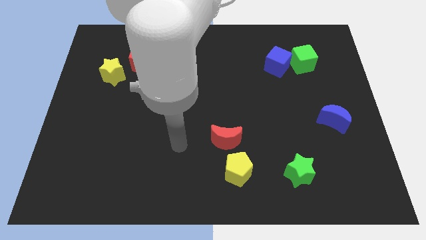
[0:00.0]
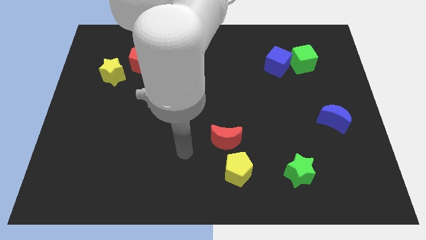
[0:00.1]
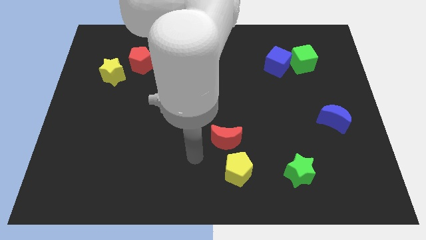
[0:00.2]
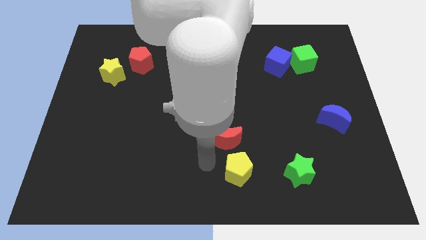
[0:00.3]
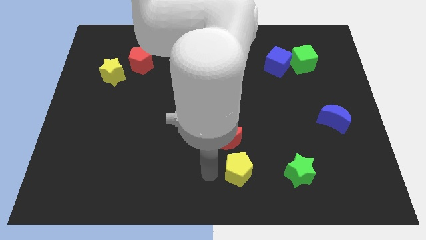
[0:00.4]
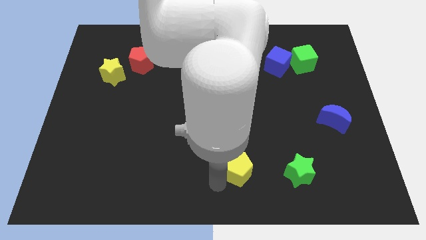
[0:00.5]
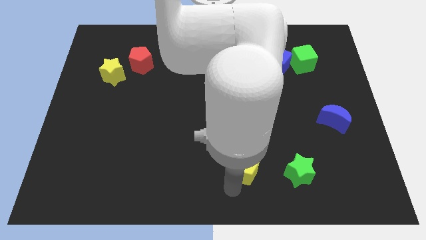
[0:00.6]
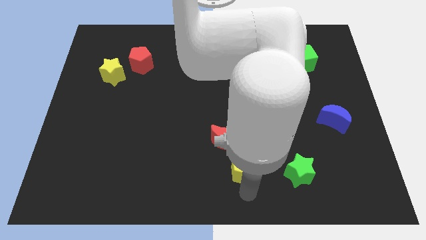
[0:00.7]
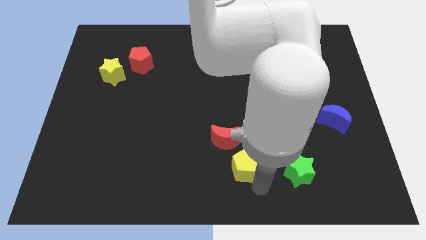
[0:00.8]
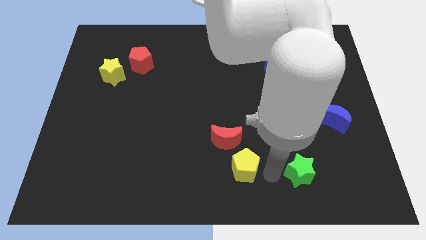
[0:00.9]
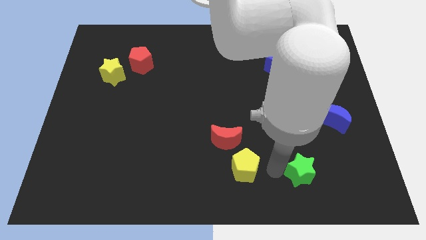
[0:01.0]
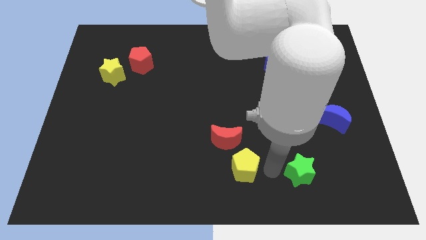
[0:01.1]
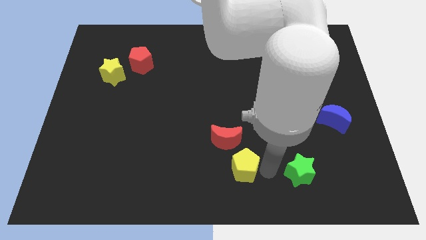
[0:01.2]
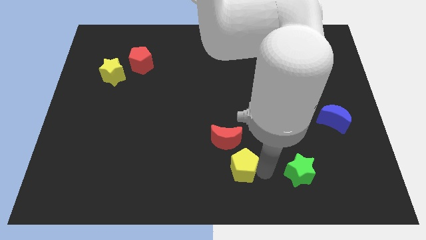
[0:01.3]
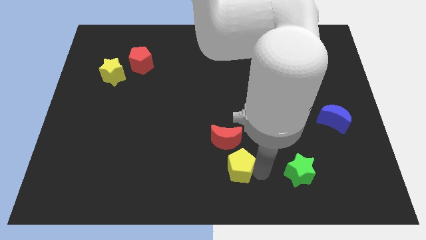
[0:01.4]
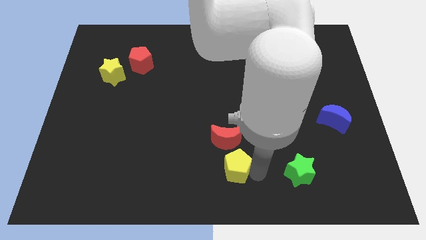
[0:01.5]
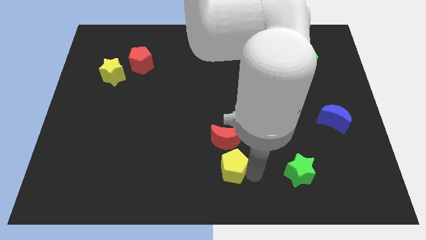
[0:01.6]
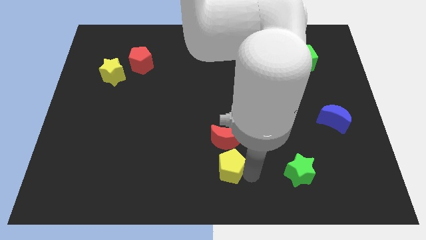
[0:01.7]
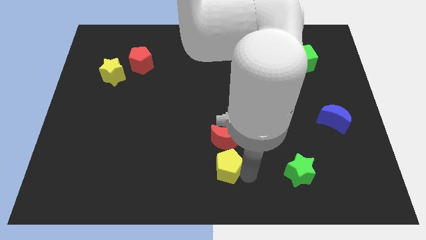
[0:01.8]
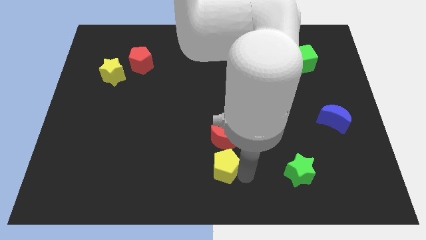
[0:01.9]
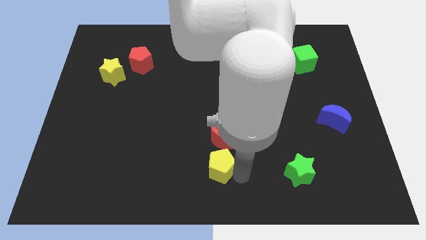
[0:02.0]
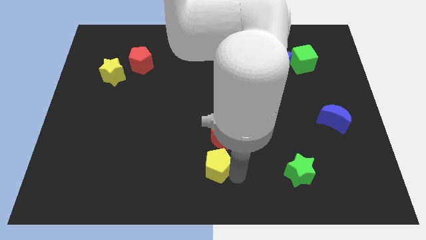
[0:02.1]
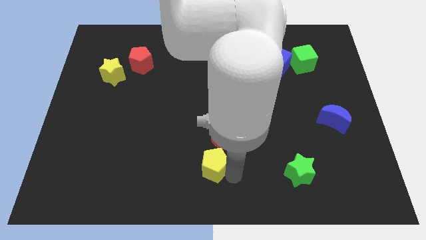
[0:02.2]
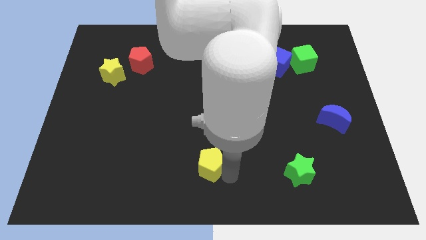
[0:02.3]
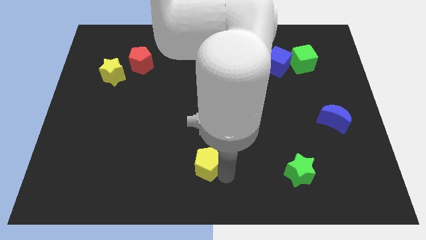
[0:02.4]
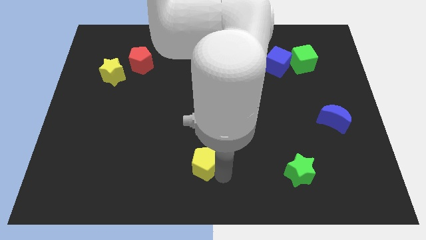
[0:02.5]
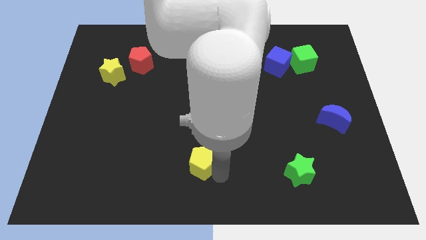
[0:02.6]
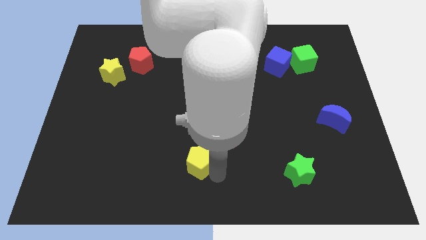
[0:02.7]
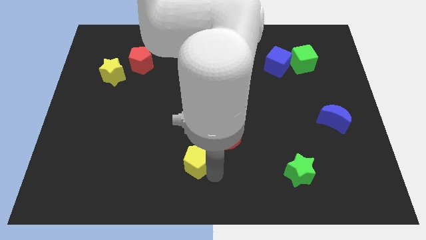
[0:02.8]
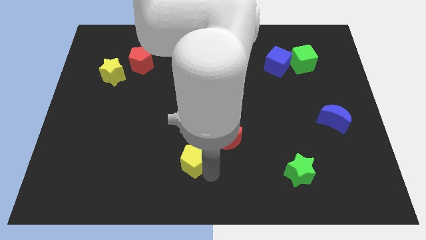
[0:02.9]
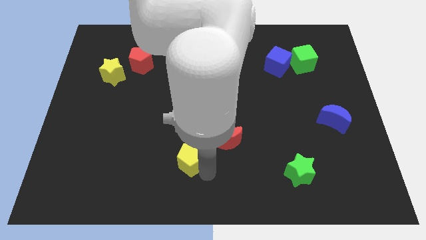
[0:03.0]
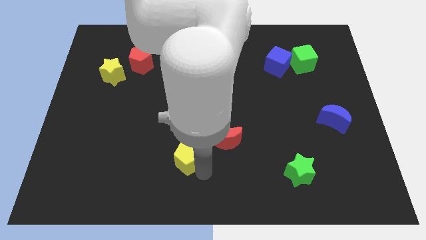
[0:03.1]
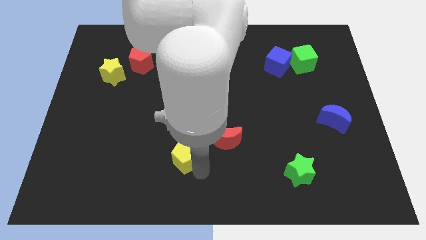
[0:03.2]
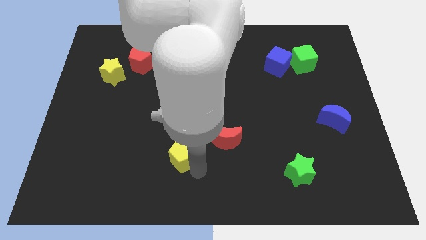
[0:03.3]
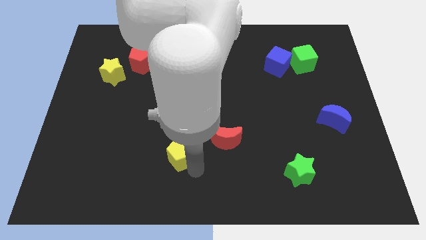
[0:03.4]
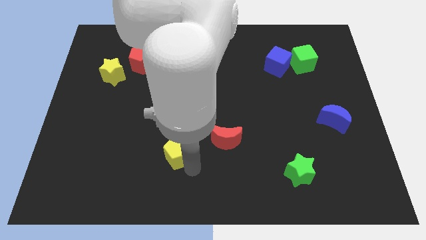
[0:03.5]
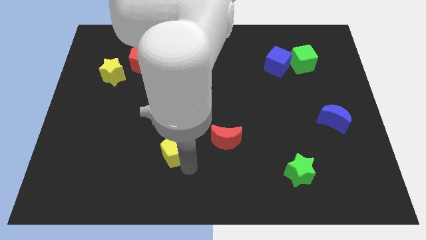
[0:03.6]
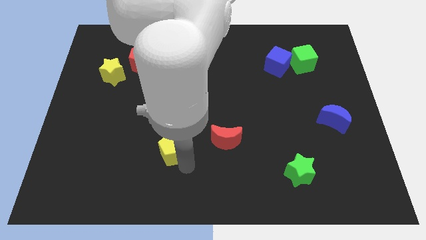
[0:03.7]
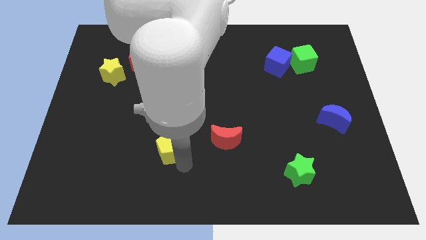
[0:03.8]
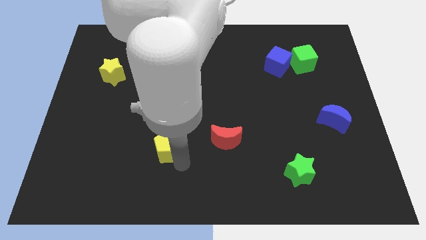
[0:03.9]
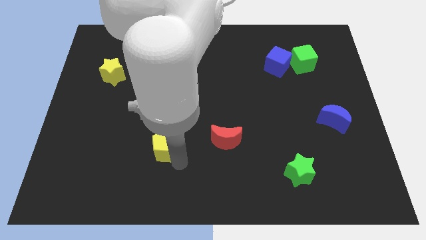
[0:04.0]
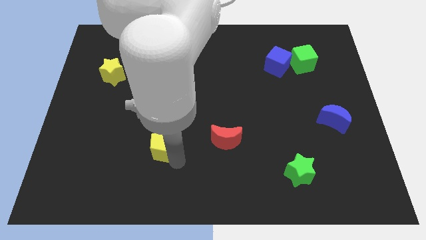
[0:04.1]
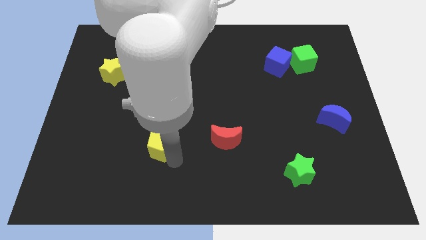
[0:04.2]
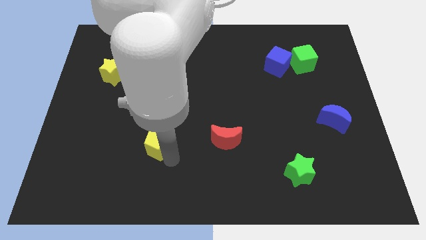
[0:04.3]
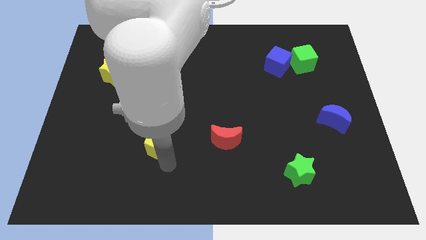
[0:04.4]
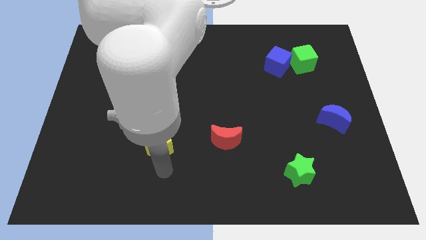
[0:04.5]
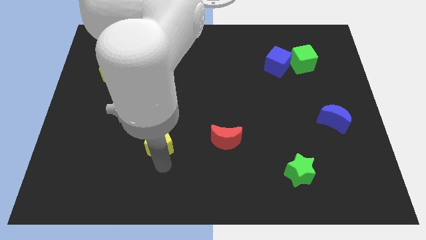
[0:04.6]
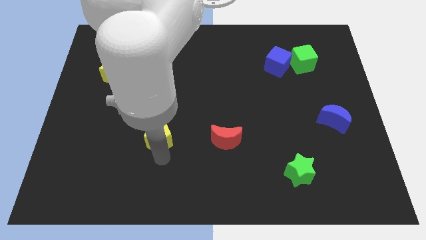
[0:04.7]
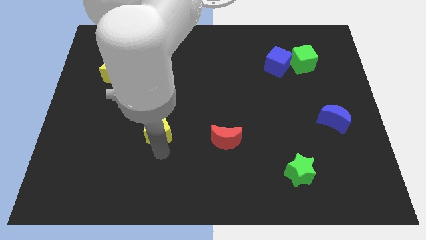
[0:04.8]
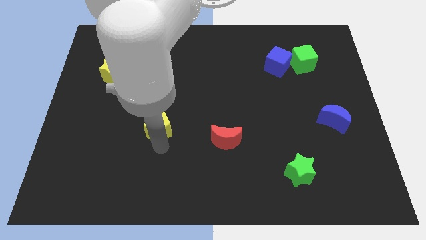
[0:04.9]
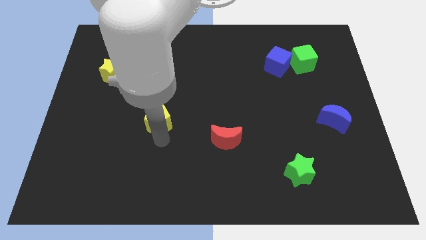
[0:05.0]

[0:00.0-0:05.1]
move the yellow pentagon diagonally upwards and left

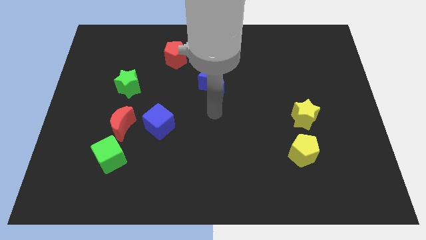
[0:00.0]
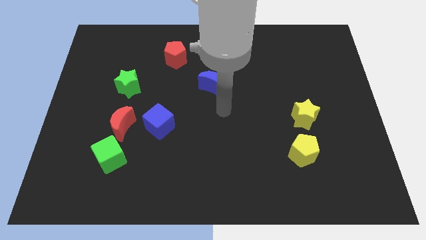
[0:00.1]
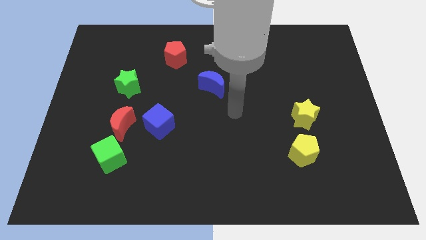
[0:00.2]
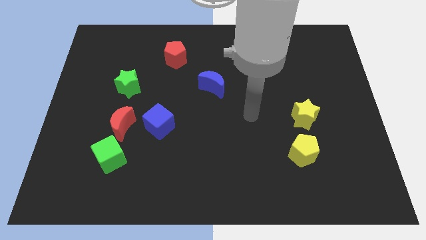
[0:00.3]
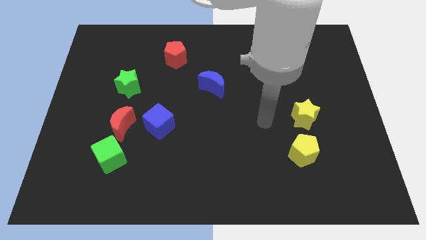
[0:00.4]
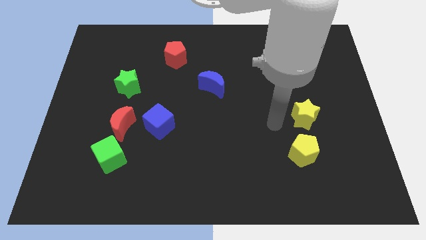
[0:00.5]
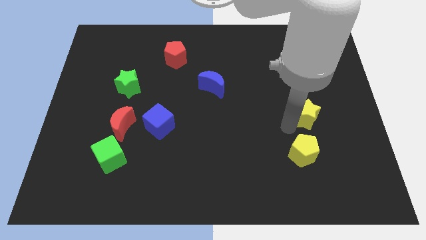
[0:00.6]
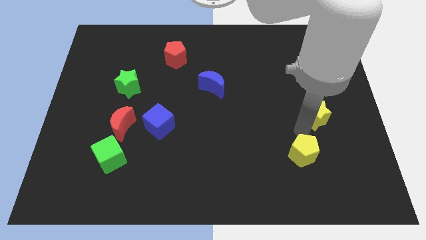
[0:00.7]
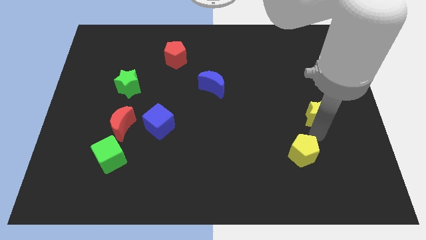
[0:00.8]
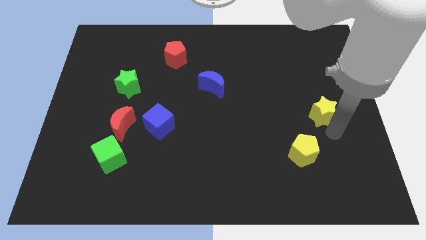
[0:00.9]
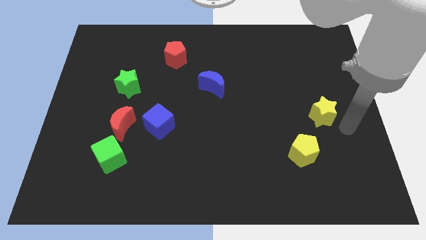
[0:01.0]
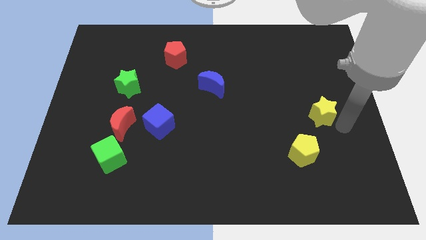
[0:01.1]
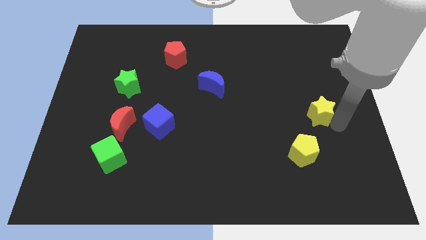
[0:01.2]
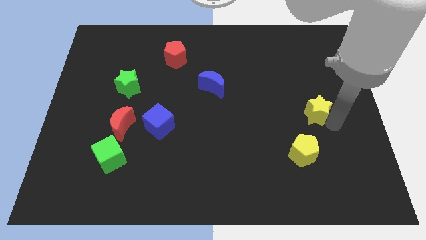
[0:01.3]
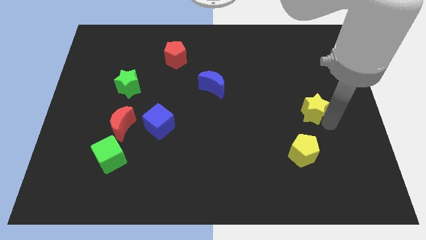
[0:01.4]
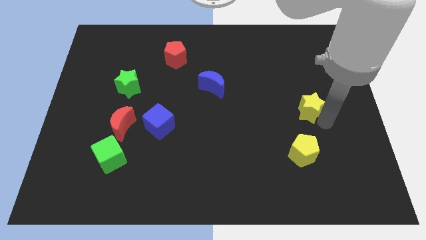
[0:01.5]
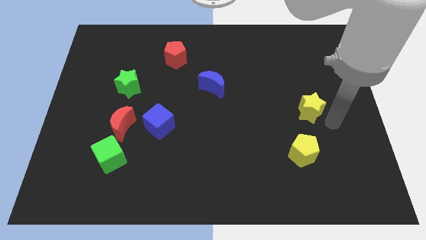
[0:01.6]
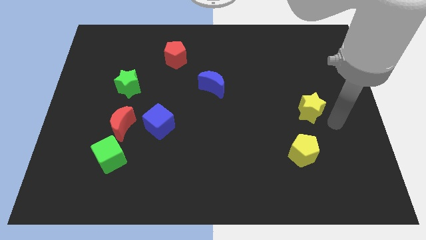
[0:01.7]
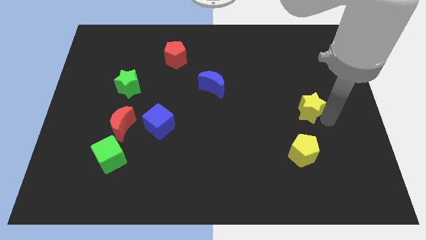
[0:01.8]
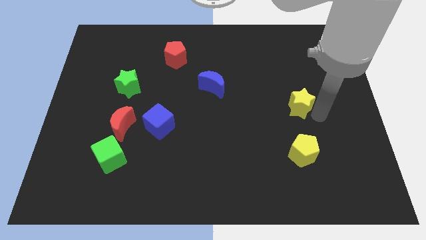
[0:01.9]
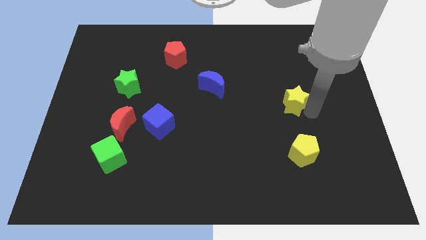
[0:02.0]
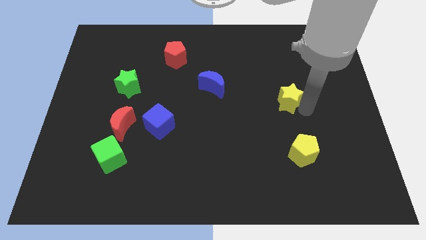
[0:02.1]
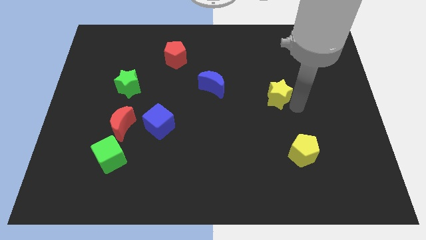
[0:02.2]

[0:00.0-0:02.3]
move the yellow star diagonally up and to the left a little bit

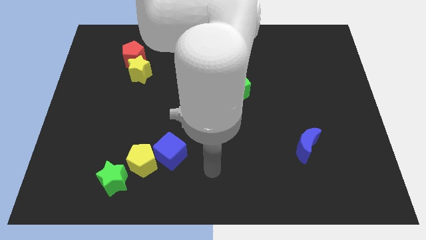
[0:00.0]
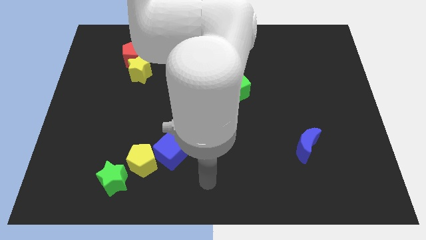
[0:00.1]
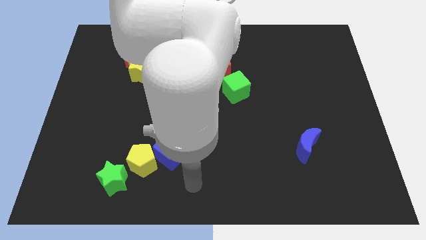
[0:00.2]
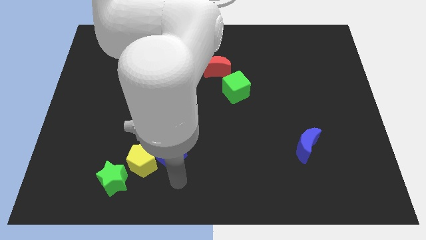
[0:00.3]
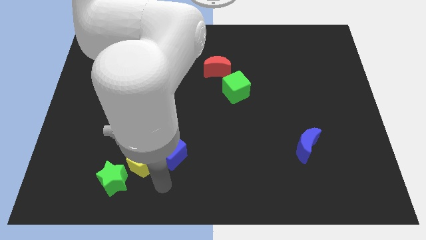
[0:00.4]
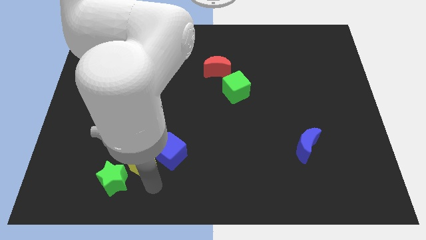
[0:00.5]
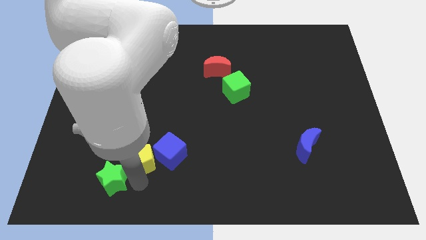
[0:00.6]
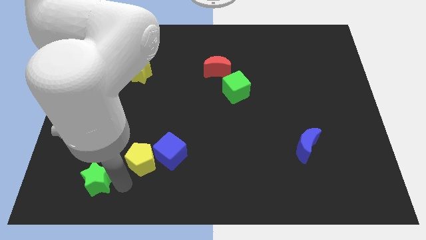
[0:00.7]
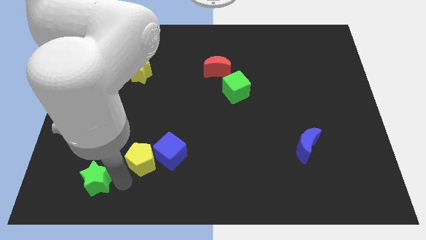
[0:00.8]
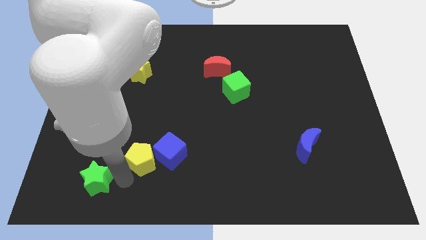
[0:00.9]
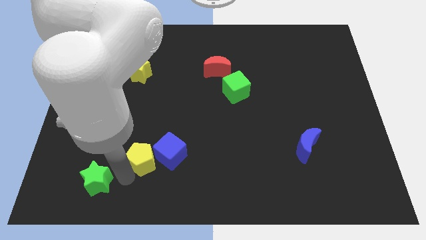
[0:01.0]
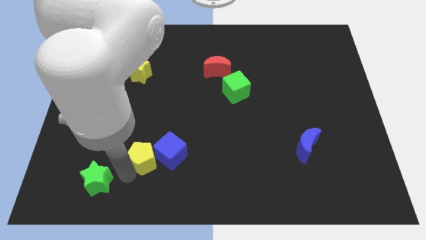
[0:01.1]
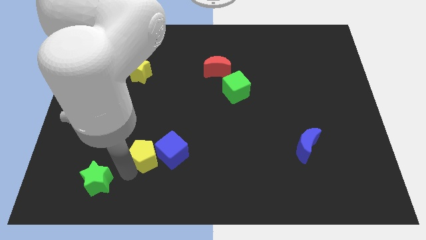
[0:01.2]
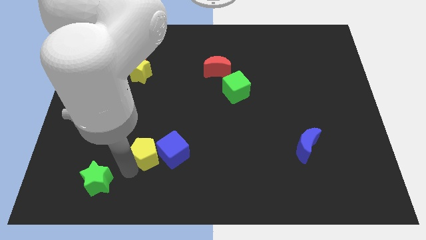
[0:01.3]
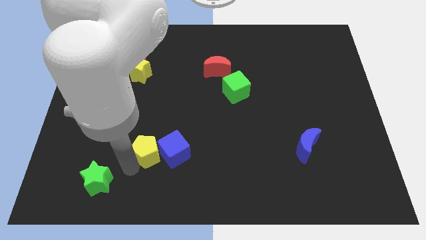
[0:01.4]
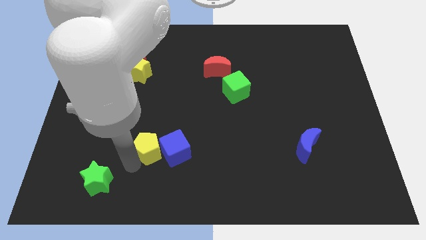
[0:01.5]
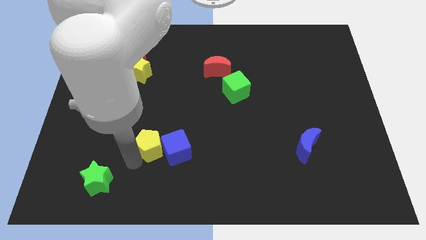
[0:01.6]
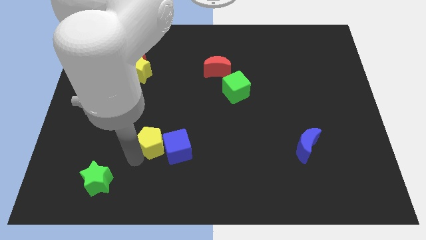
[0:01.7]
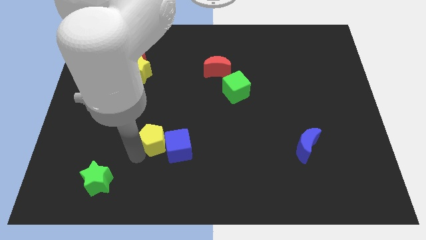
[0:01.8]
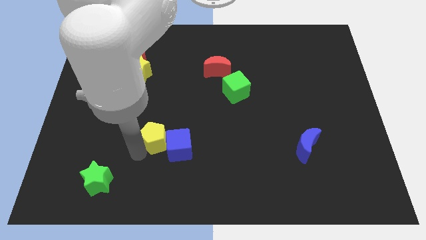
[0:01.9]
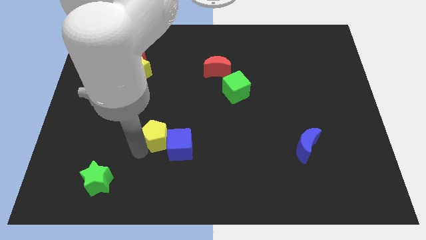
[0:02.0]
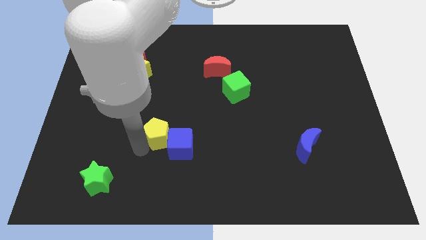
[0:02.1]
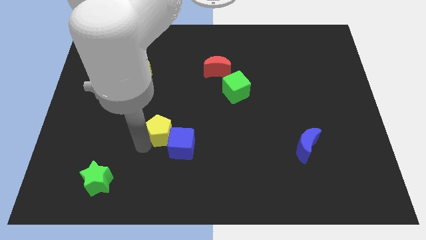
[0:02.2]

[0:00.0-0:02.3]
slide the yellow pentagon up and right somewhat
